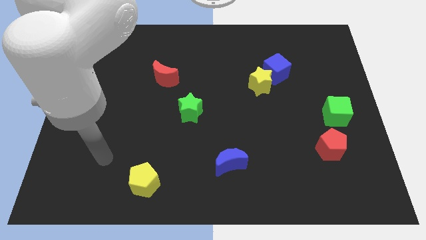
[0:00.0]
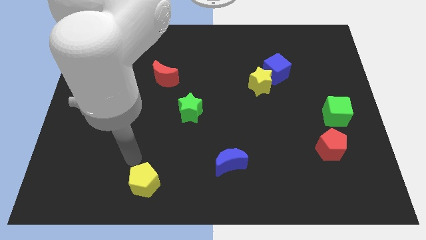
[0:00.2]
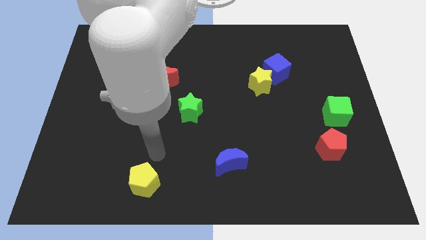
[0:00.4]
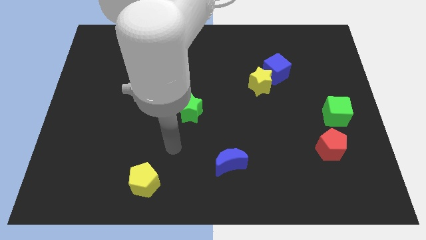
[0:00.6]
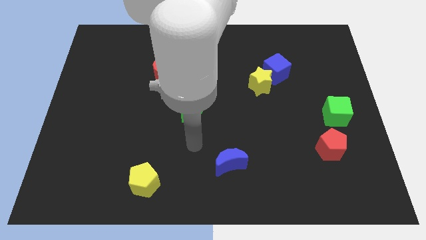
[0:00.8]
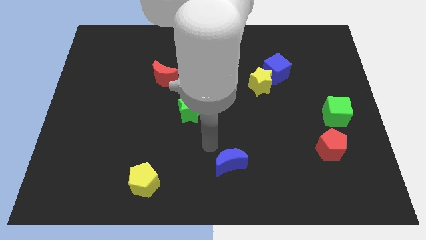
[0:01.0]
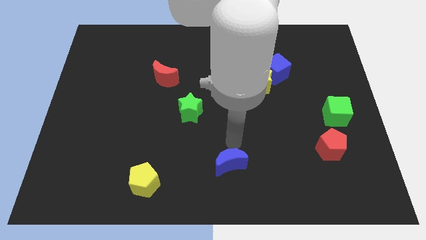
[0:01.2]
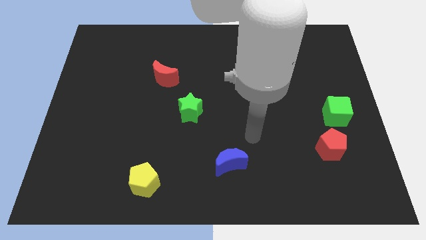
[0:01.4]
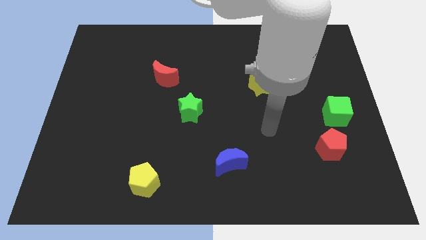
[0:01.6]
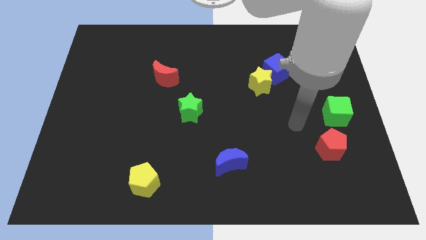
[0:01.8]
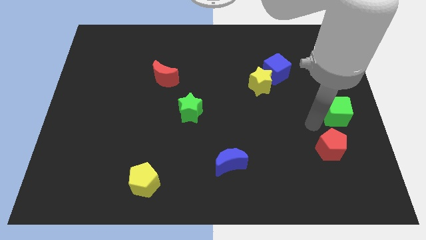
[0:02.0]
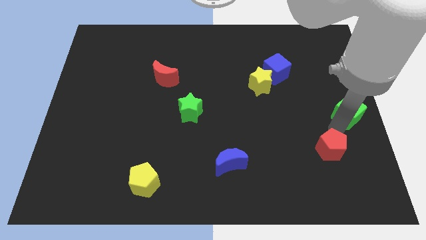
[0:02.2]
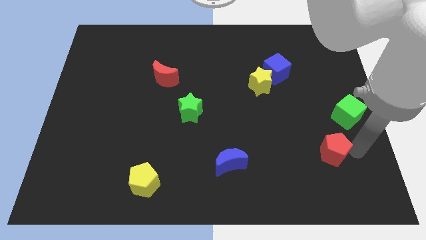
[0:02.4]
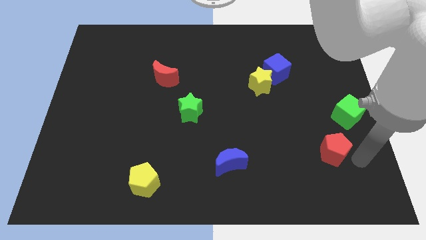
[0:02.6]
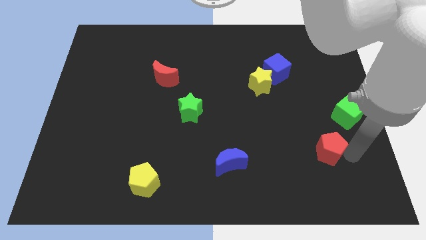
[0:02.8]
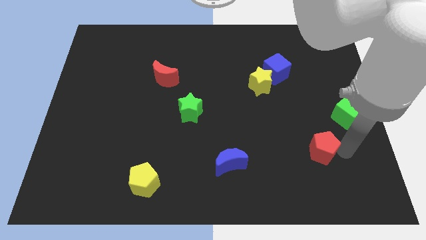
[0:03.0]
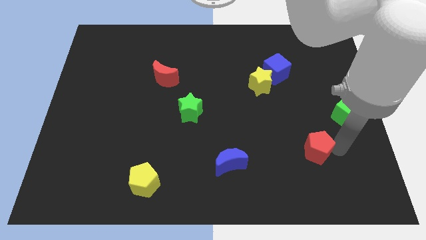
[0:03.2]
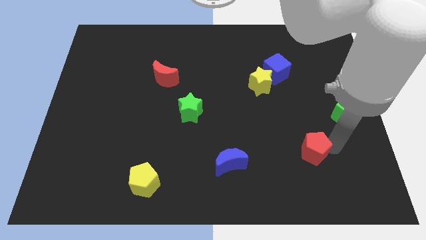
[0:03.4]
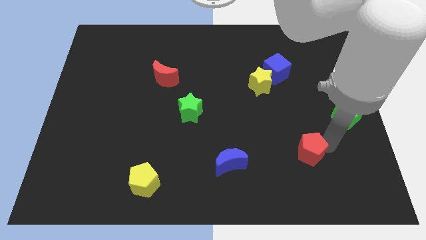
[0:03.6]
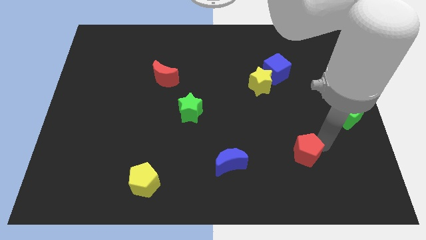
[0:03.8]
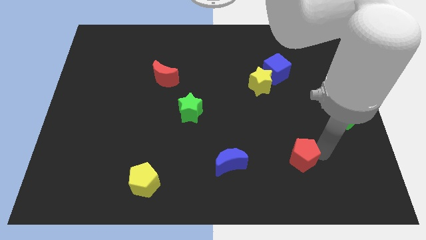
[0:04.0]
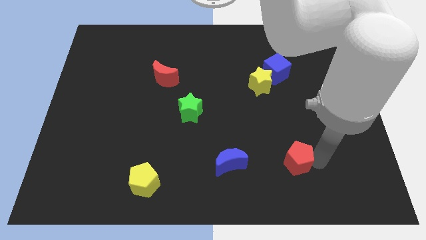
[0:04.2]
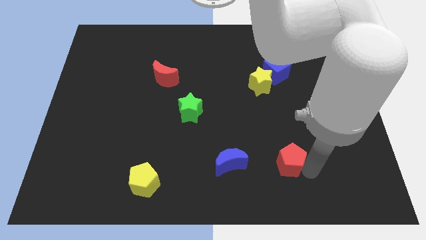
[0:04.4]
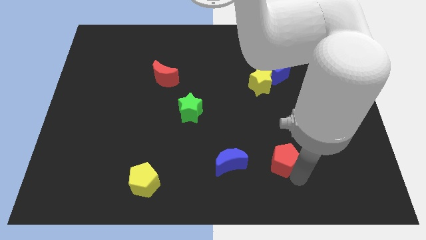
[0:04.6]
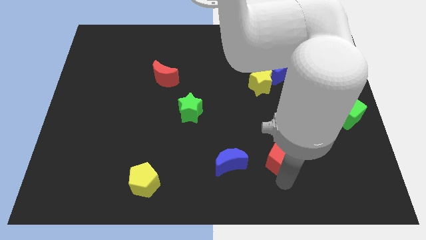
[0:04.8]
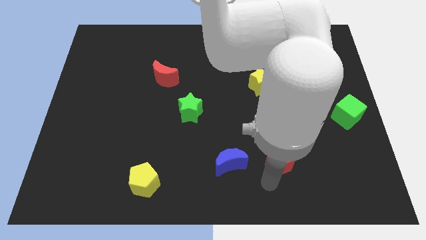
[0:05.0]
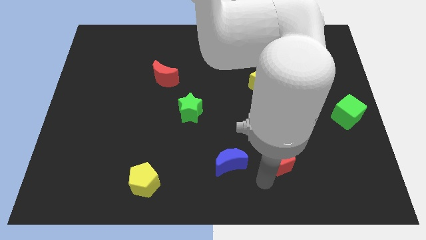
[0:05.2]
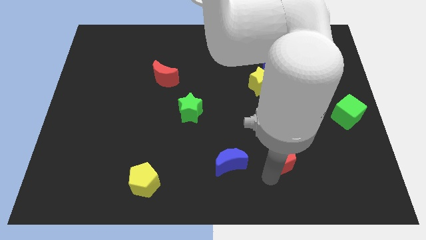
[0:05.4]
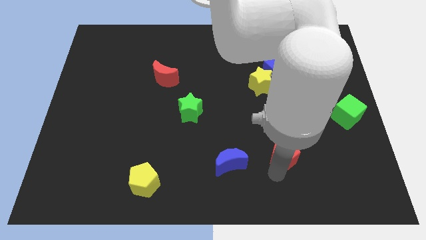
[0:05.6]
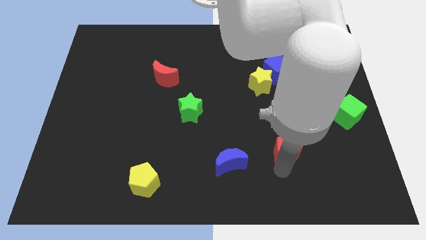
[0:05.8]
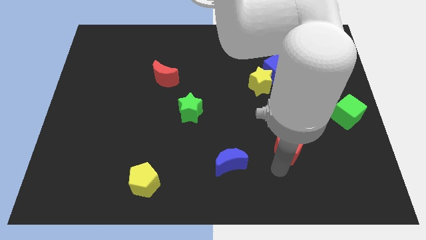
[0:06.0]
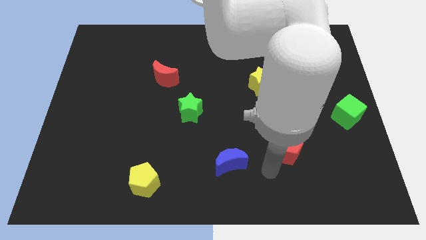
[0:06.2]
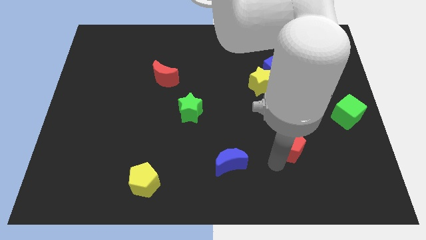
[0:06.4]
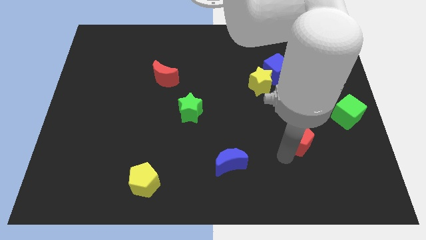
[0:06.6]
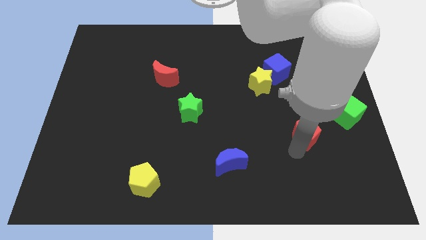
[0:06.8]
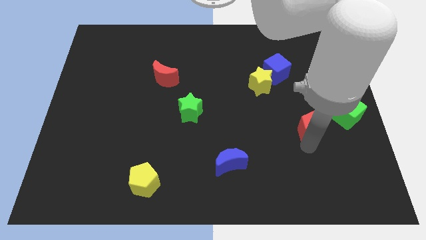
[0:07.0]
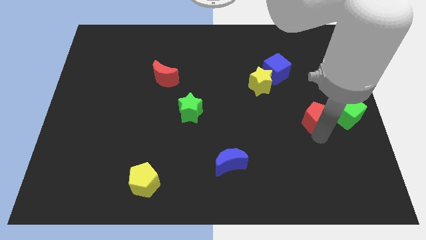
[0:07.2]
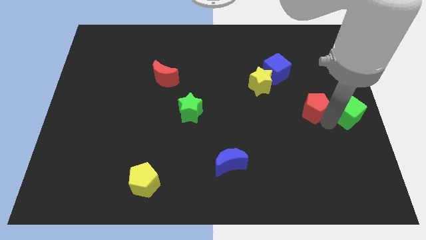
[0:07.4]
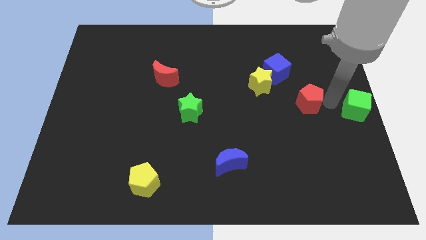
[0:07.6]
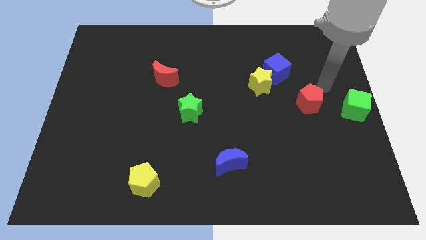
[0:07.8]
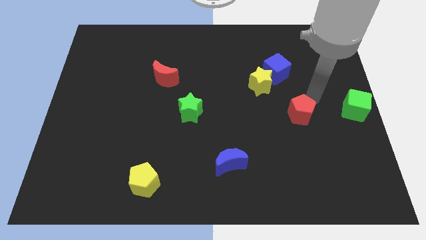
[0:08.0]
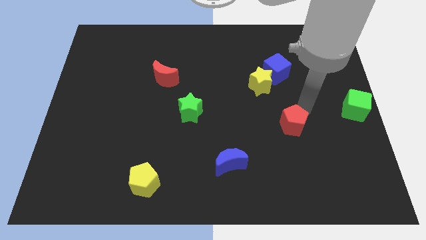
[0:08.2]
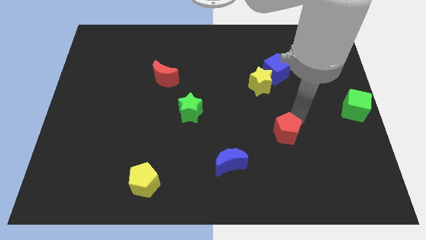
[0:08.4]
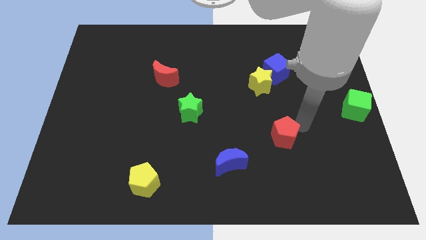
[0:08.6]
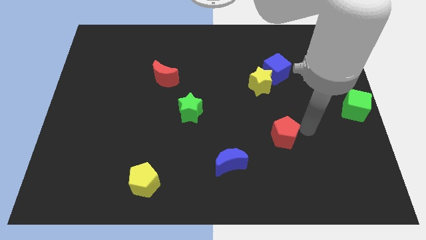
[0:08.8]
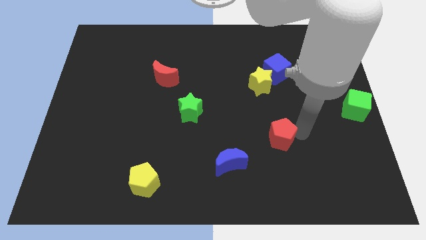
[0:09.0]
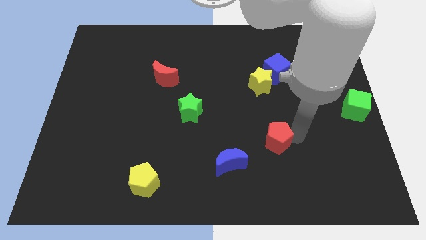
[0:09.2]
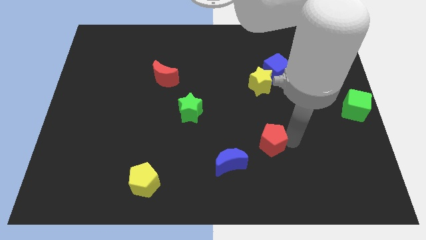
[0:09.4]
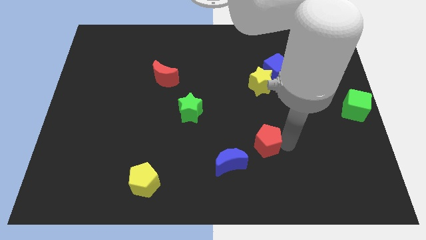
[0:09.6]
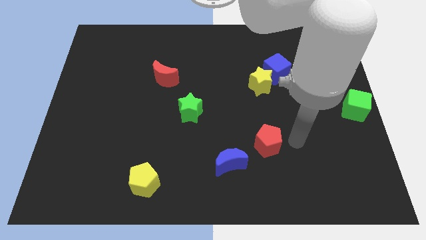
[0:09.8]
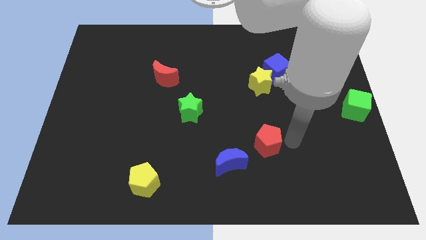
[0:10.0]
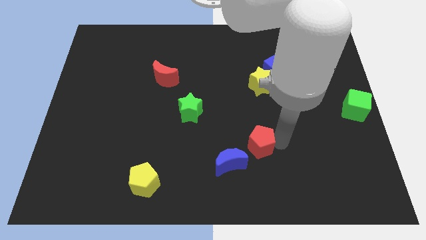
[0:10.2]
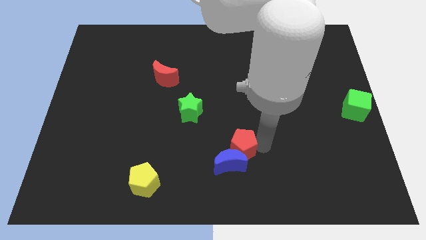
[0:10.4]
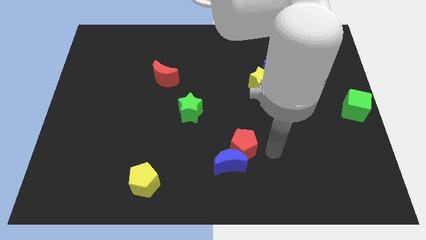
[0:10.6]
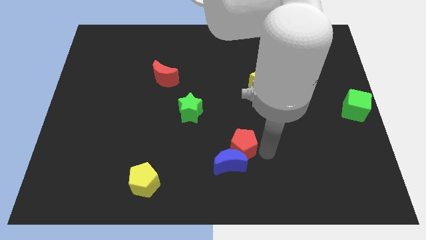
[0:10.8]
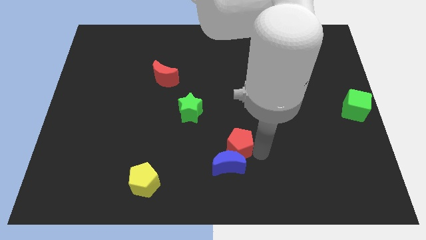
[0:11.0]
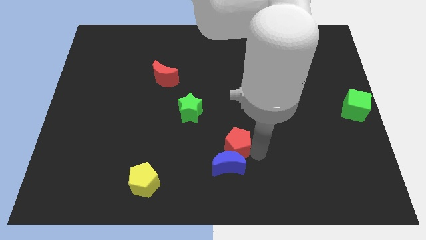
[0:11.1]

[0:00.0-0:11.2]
slide the red pentagon left

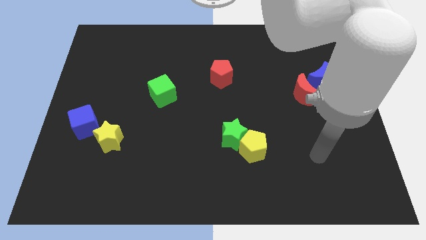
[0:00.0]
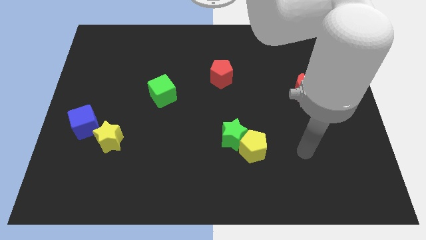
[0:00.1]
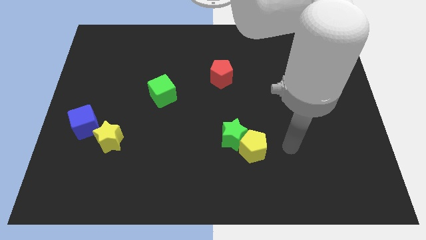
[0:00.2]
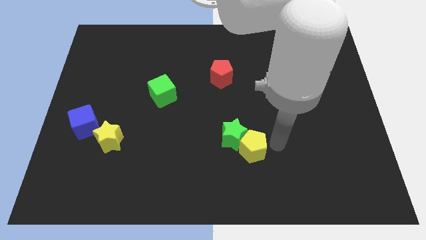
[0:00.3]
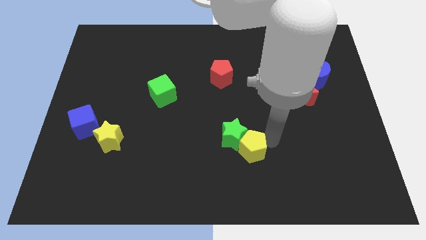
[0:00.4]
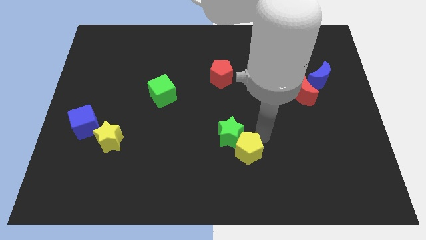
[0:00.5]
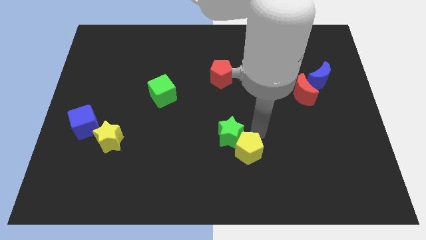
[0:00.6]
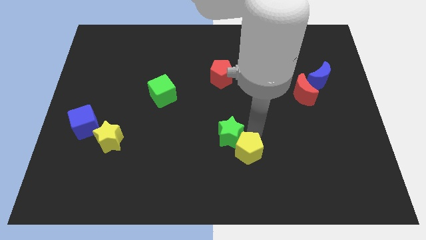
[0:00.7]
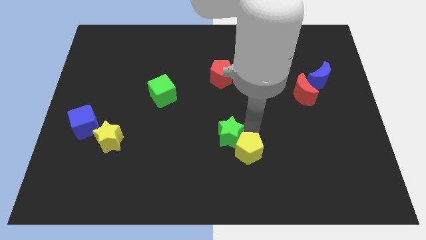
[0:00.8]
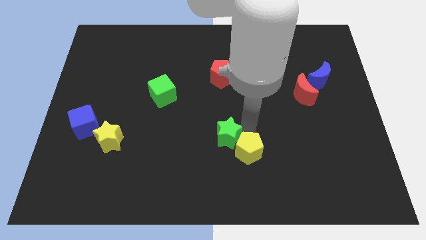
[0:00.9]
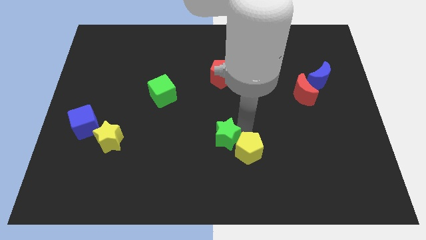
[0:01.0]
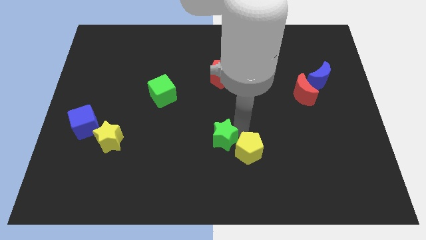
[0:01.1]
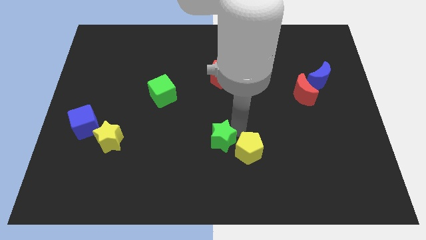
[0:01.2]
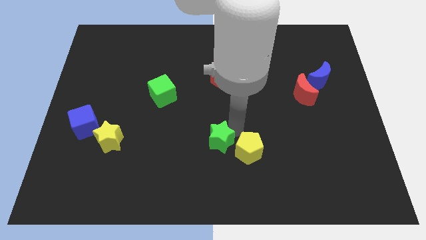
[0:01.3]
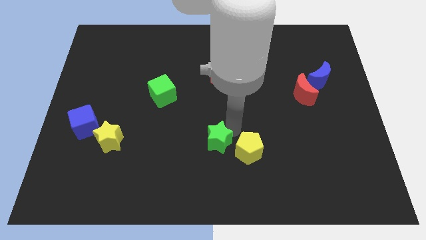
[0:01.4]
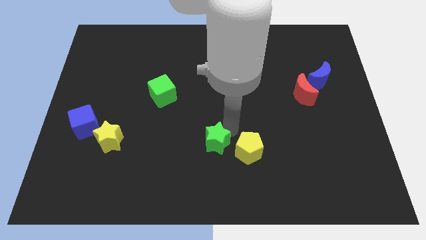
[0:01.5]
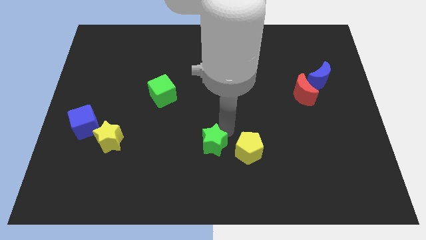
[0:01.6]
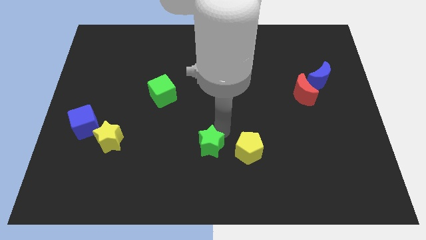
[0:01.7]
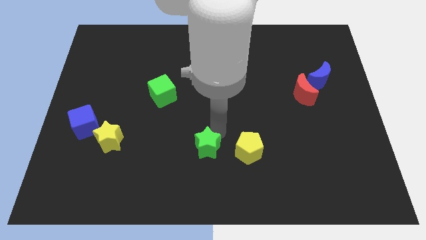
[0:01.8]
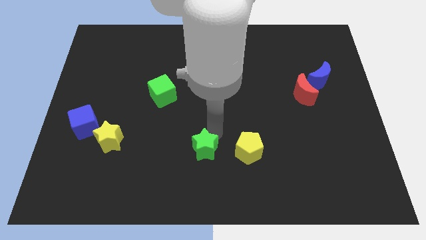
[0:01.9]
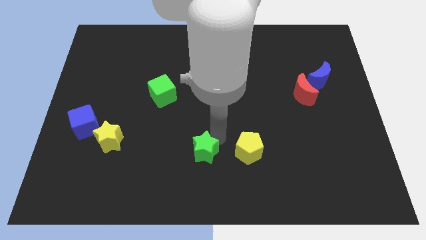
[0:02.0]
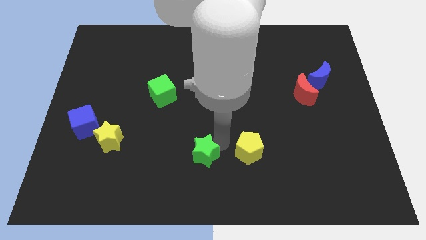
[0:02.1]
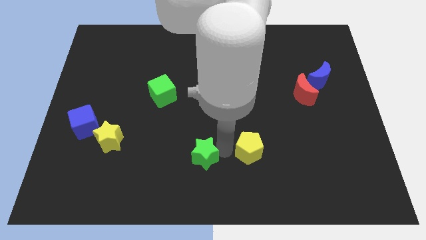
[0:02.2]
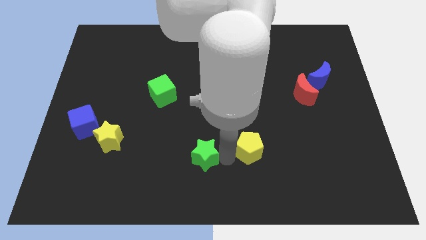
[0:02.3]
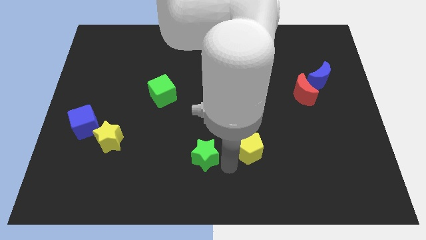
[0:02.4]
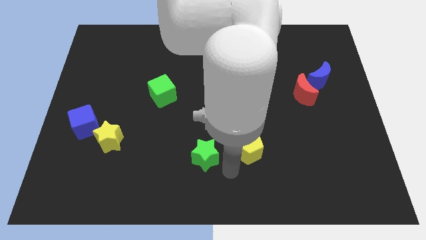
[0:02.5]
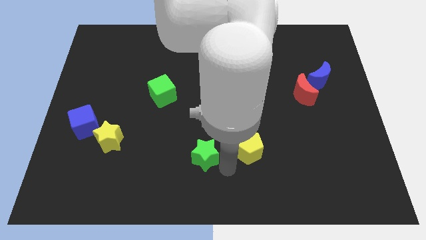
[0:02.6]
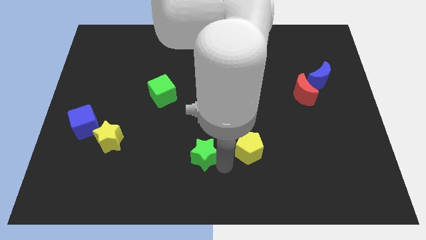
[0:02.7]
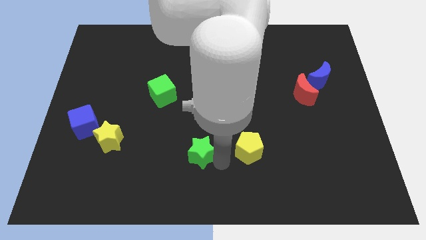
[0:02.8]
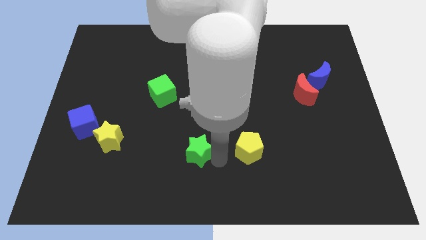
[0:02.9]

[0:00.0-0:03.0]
slightly move the green star to the left
